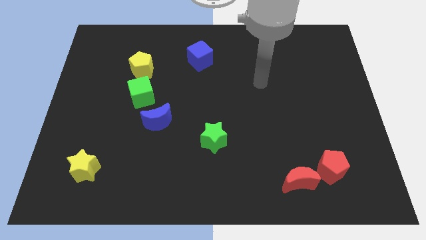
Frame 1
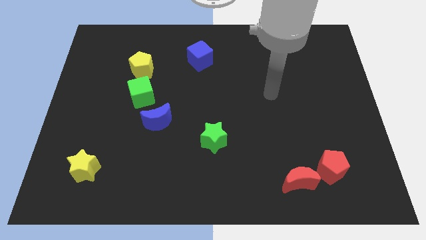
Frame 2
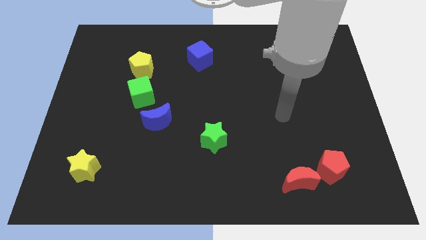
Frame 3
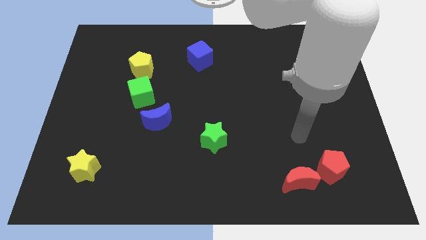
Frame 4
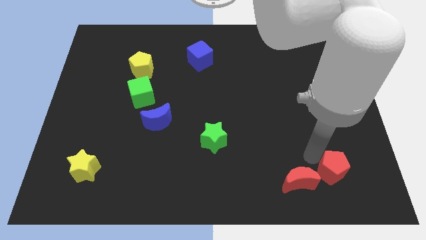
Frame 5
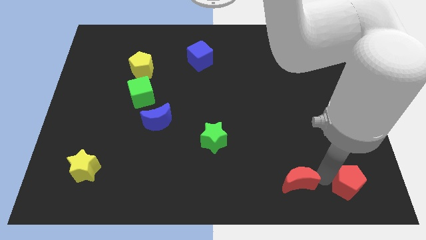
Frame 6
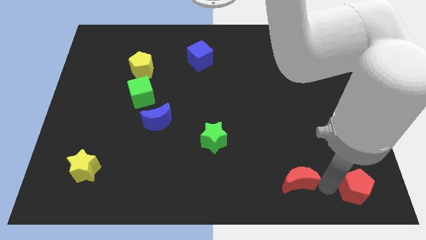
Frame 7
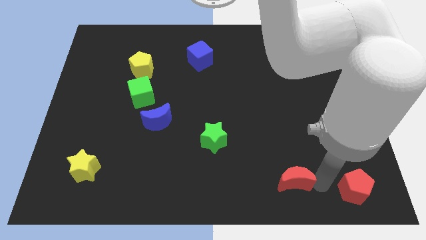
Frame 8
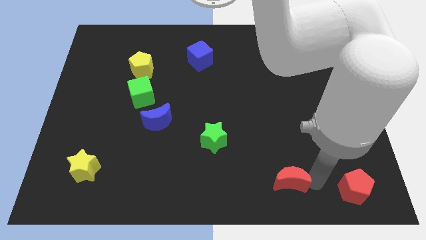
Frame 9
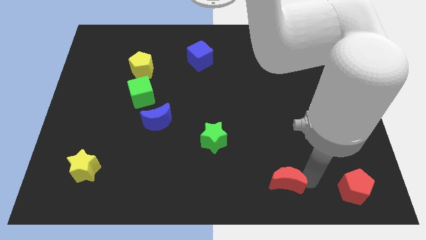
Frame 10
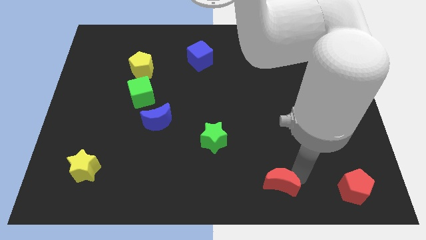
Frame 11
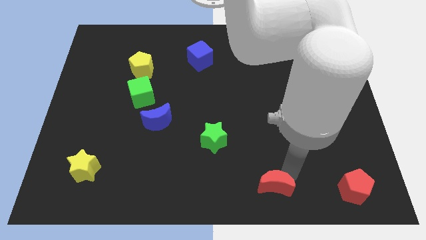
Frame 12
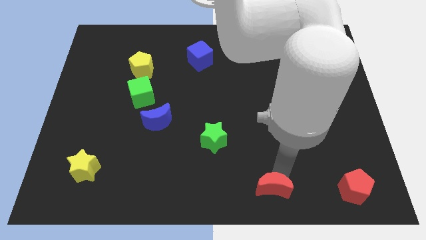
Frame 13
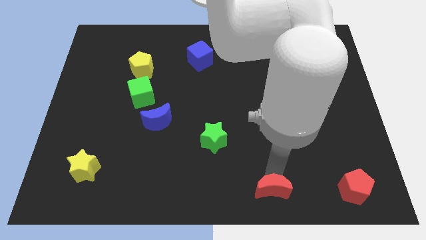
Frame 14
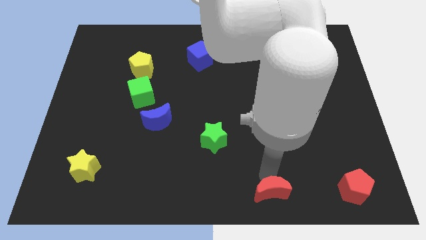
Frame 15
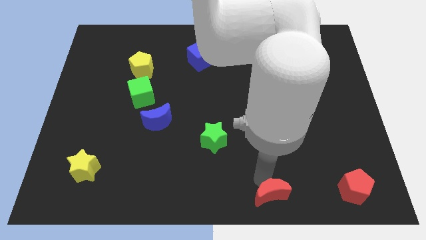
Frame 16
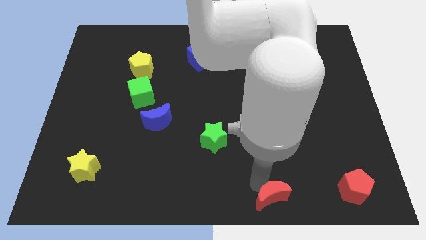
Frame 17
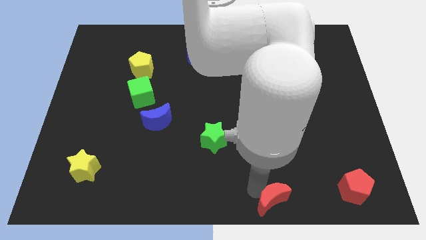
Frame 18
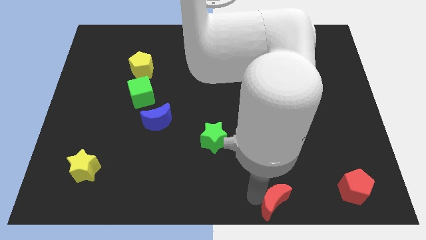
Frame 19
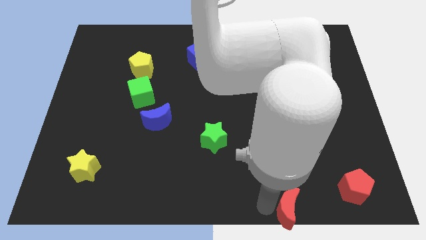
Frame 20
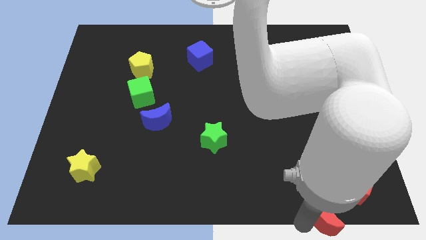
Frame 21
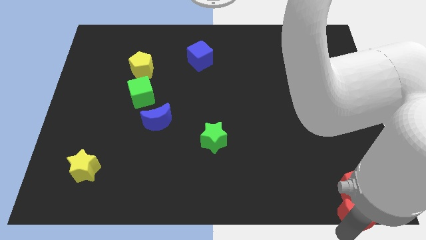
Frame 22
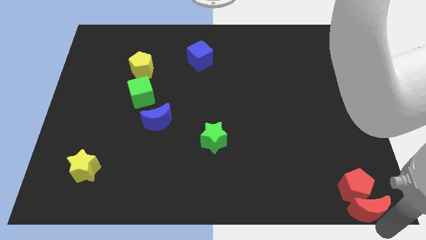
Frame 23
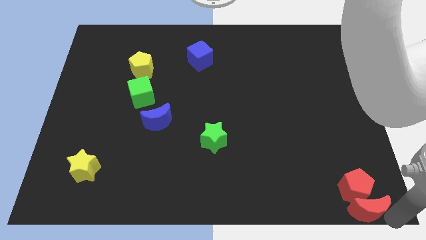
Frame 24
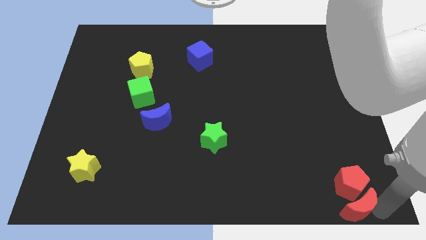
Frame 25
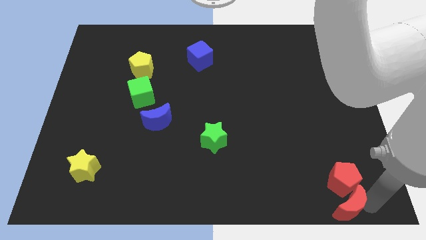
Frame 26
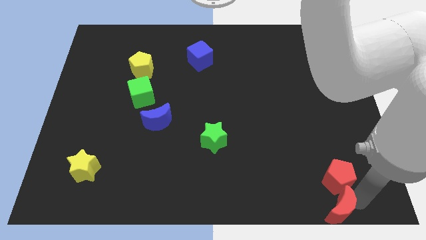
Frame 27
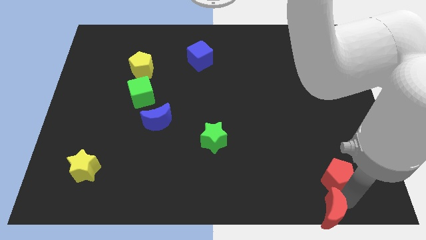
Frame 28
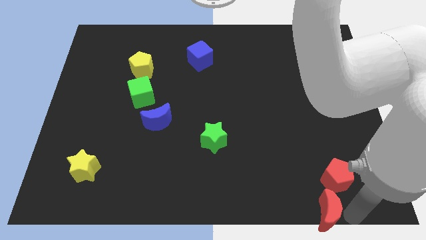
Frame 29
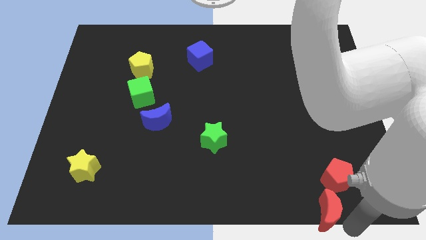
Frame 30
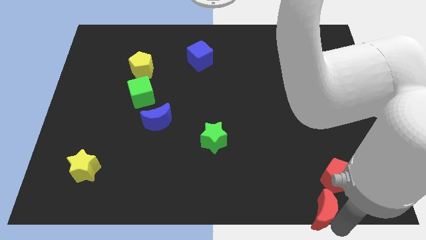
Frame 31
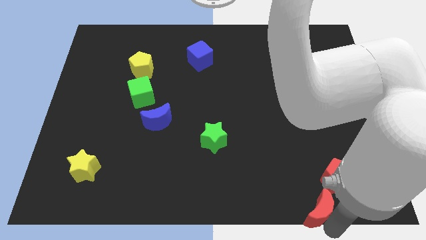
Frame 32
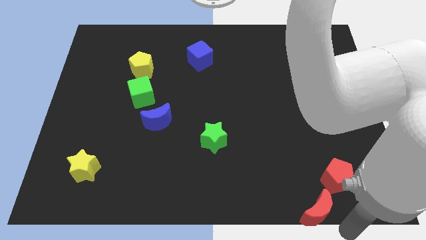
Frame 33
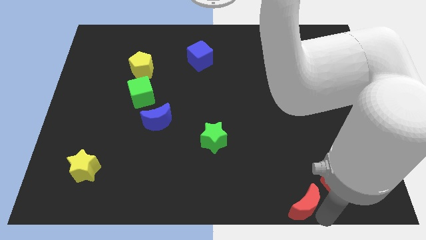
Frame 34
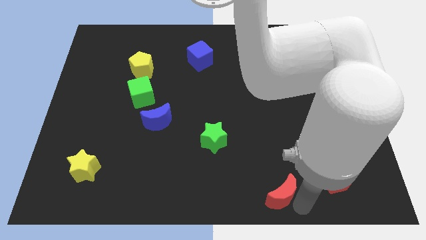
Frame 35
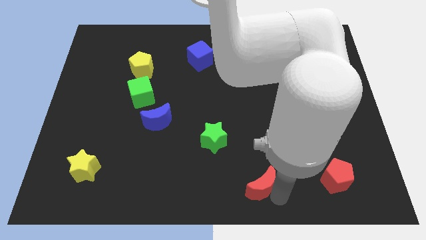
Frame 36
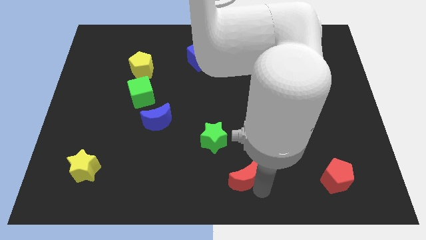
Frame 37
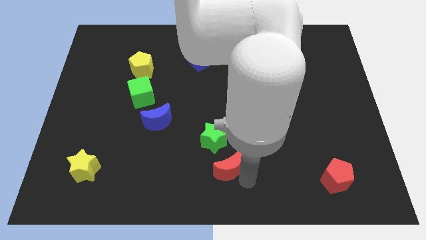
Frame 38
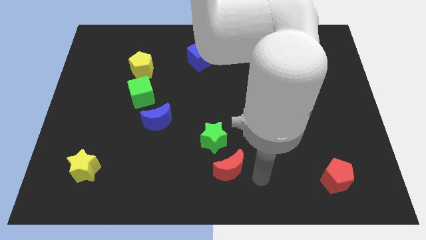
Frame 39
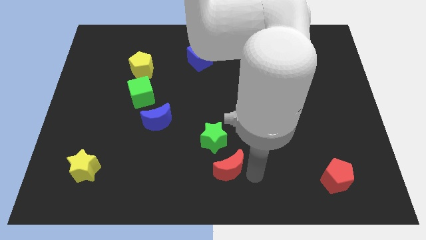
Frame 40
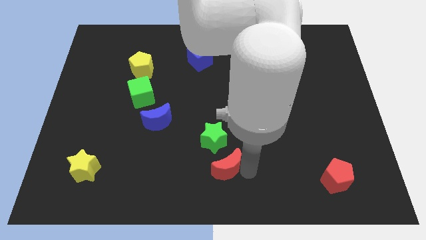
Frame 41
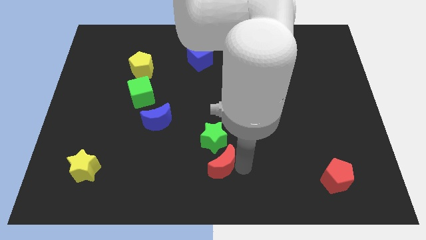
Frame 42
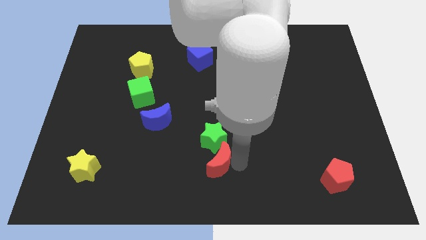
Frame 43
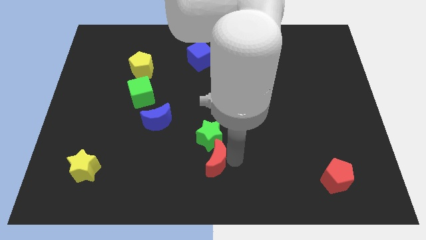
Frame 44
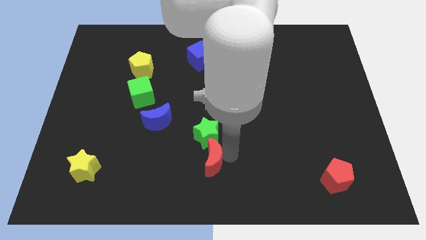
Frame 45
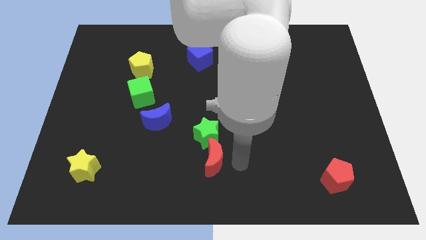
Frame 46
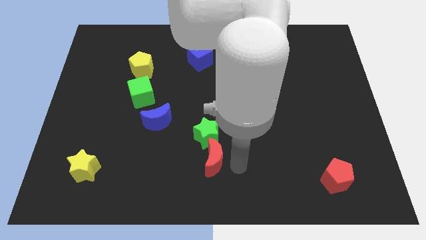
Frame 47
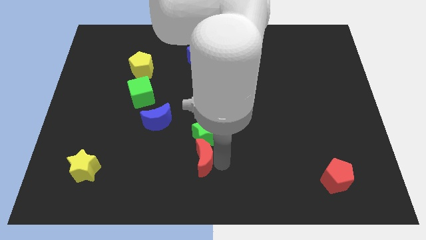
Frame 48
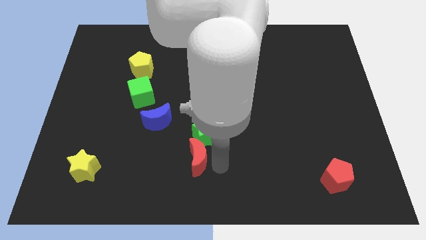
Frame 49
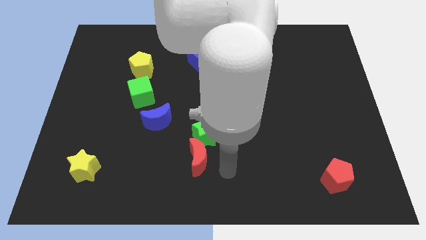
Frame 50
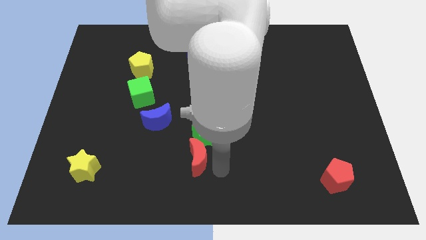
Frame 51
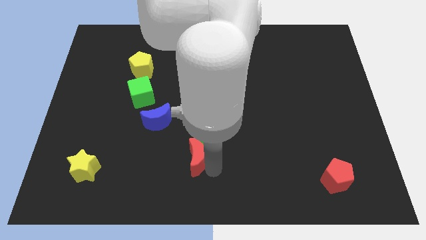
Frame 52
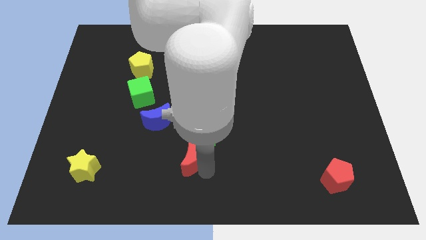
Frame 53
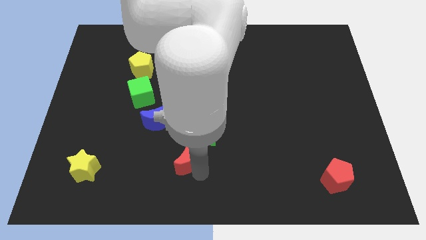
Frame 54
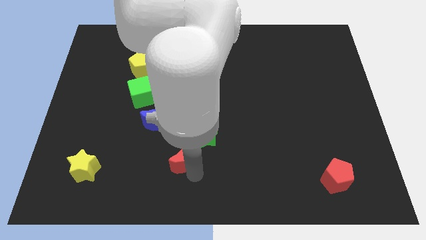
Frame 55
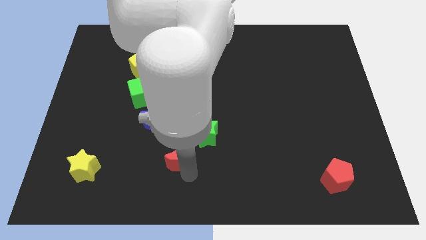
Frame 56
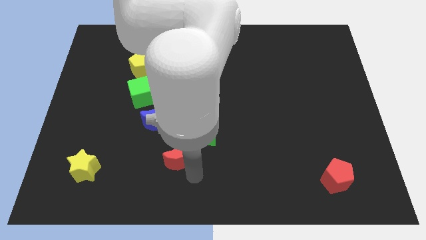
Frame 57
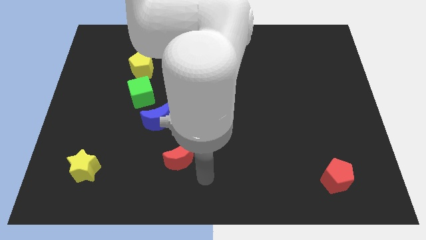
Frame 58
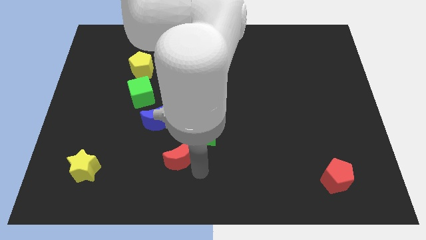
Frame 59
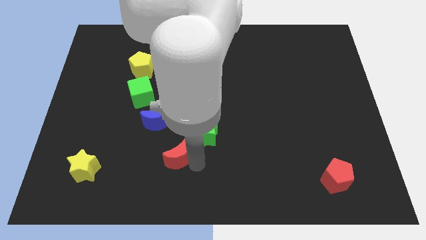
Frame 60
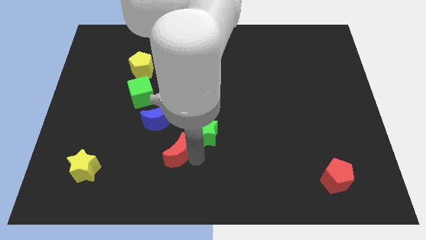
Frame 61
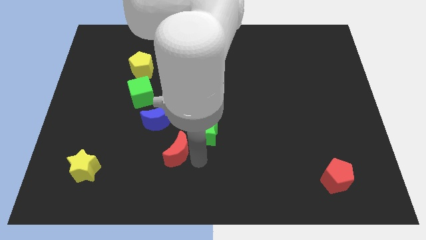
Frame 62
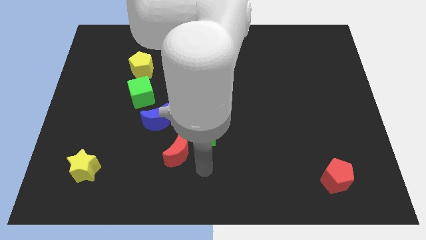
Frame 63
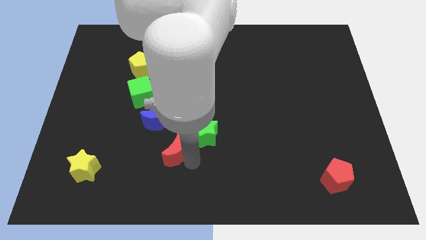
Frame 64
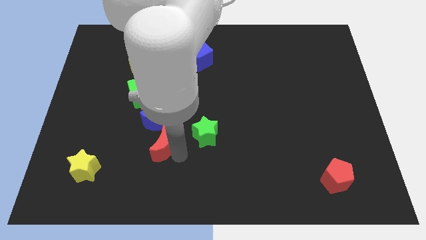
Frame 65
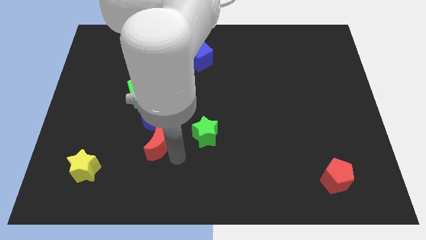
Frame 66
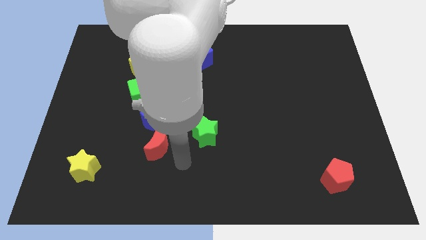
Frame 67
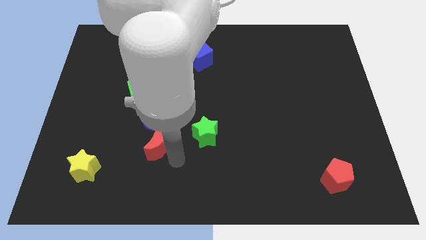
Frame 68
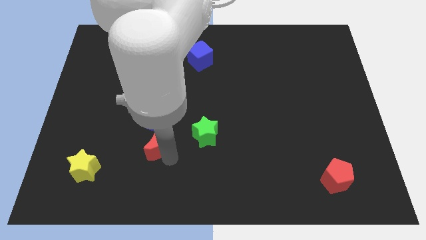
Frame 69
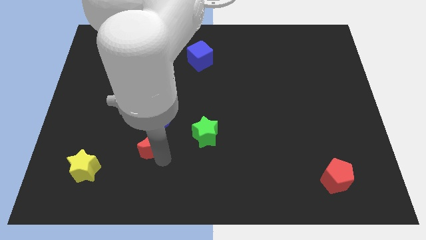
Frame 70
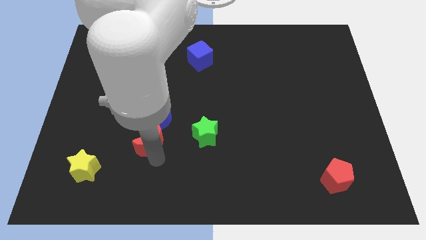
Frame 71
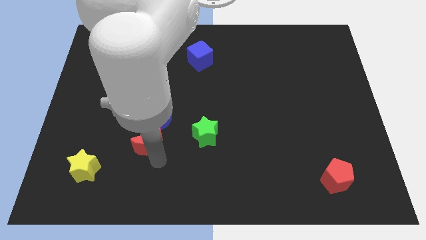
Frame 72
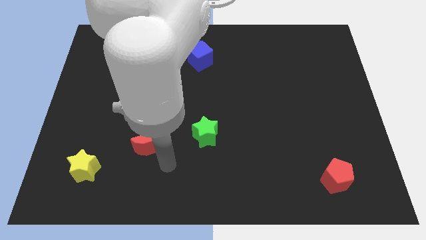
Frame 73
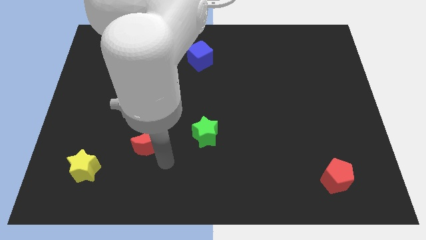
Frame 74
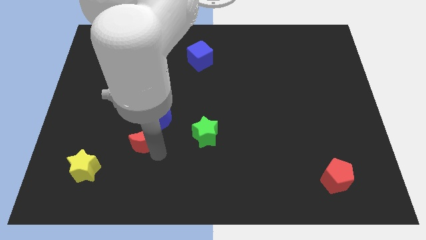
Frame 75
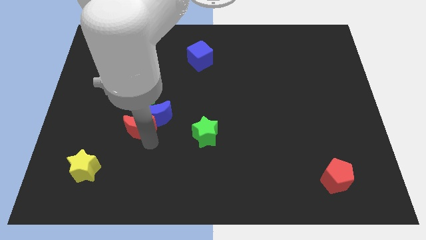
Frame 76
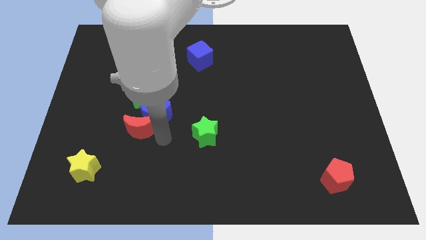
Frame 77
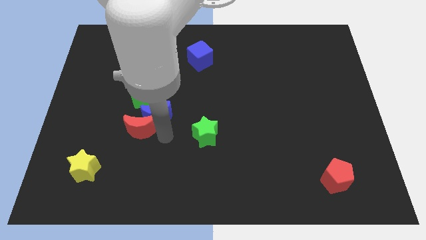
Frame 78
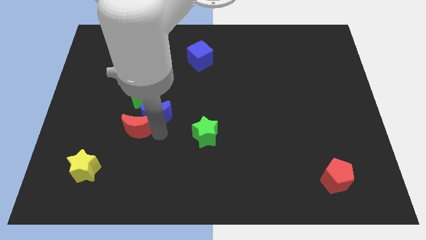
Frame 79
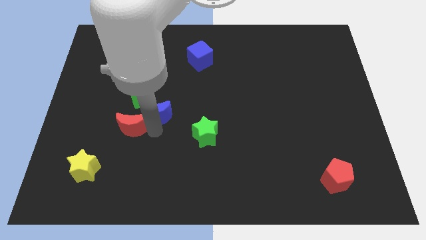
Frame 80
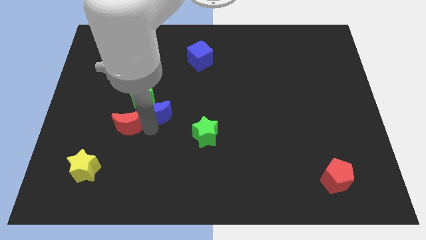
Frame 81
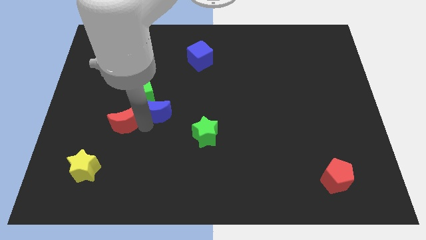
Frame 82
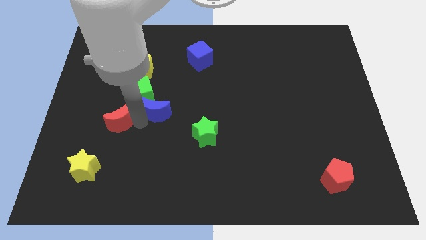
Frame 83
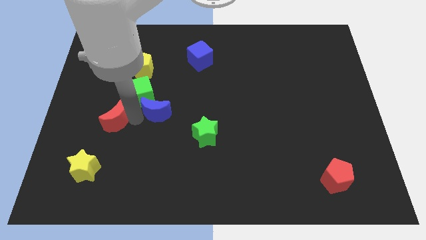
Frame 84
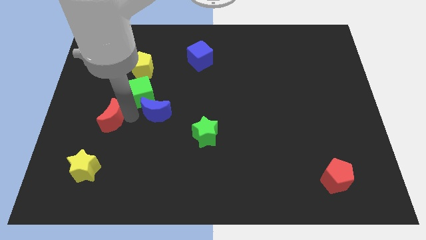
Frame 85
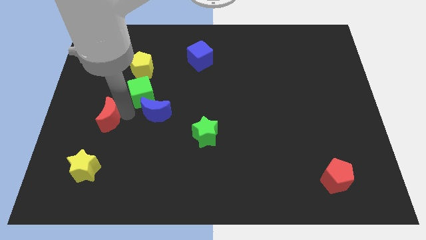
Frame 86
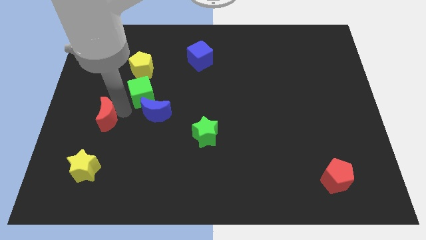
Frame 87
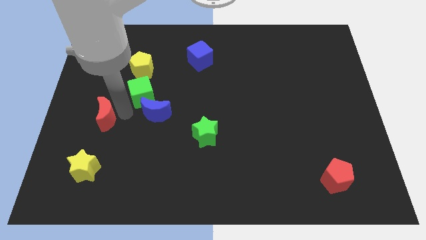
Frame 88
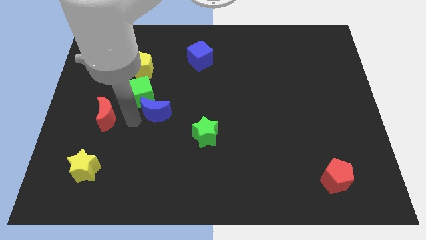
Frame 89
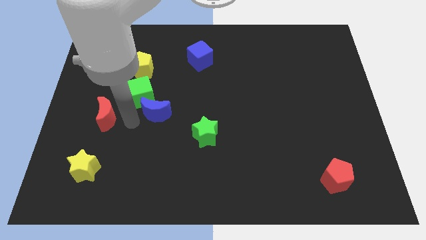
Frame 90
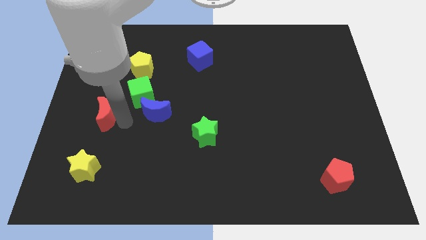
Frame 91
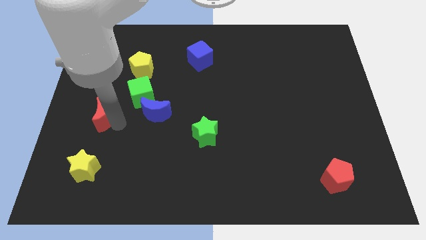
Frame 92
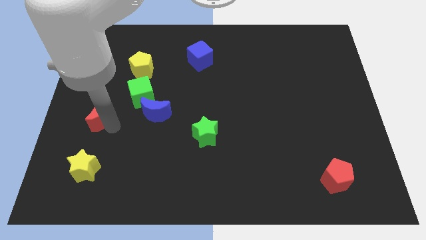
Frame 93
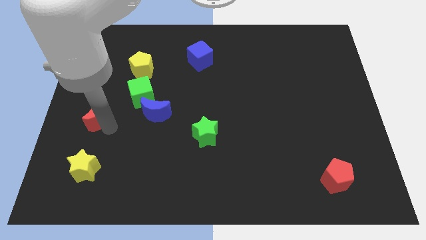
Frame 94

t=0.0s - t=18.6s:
slide the red moon to the left side of the board
